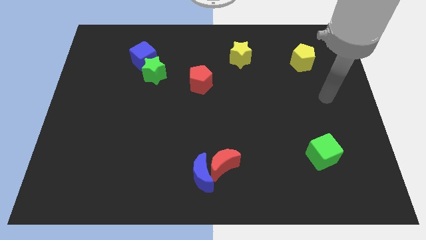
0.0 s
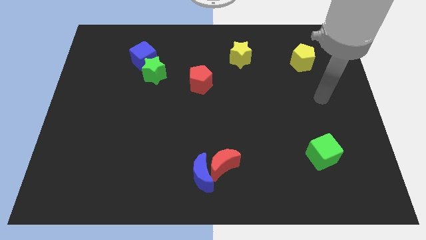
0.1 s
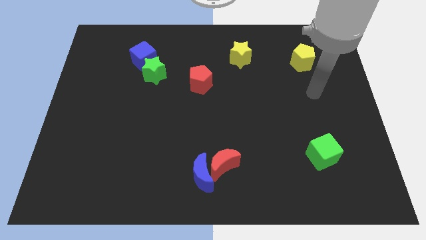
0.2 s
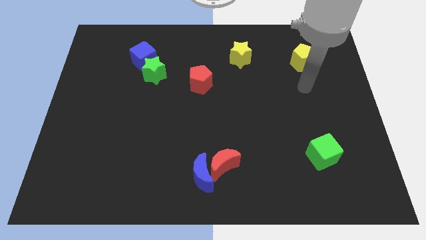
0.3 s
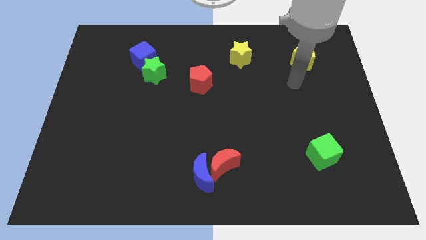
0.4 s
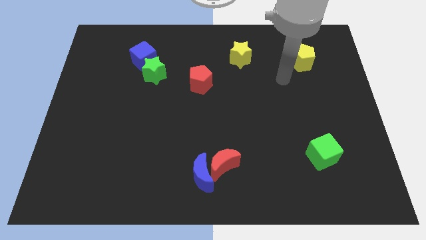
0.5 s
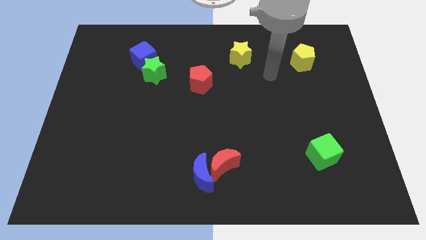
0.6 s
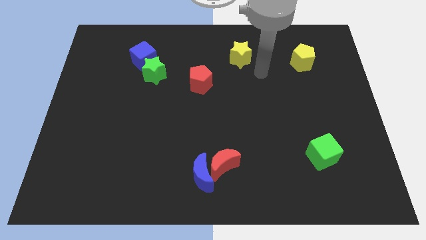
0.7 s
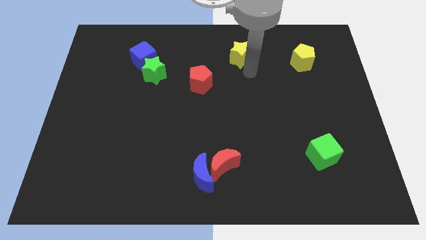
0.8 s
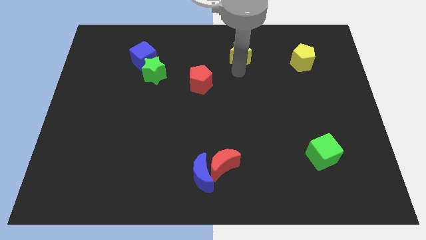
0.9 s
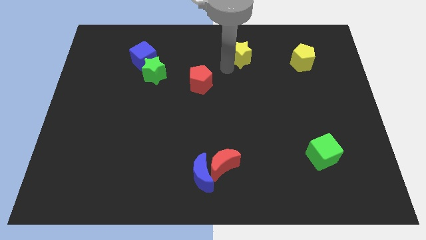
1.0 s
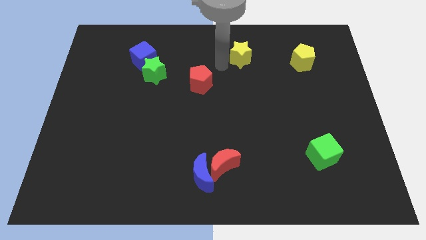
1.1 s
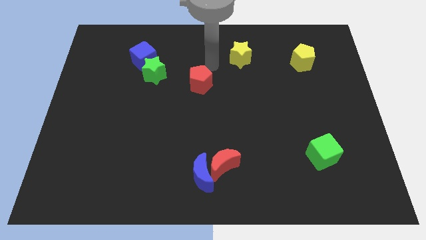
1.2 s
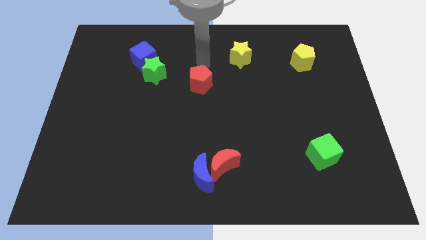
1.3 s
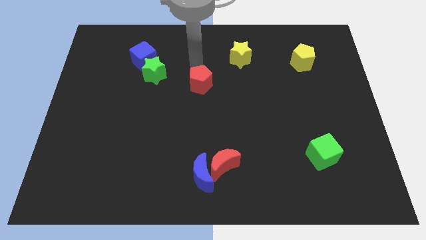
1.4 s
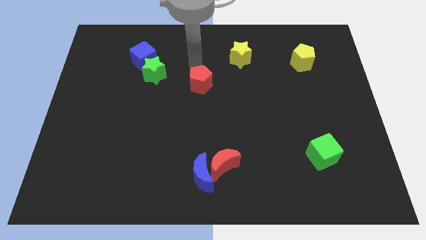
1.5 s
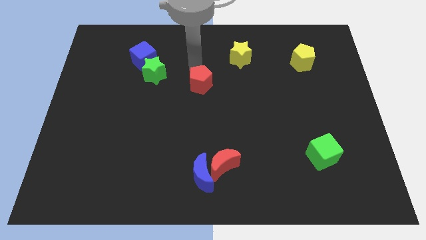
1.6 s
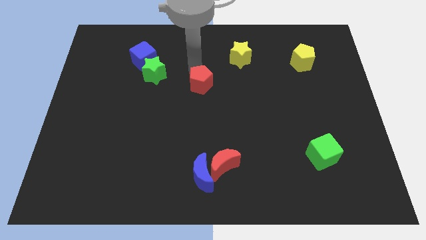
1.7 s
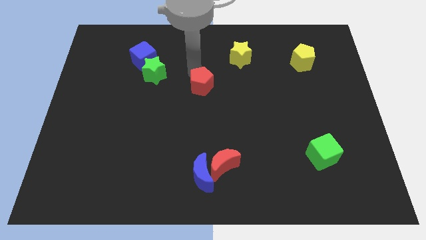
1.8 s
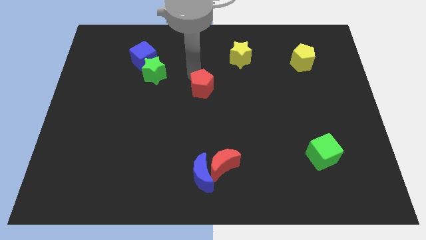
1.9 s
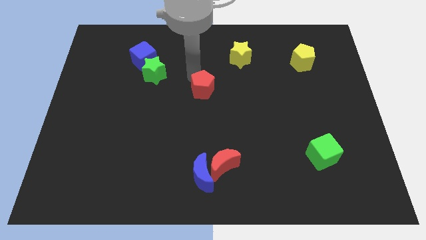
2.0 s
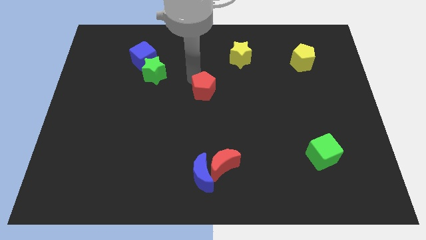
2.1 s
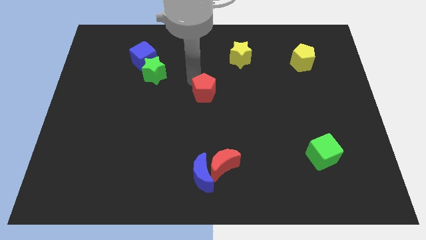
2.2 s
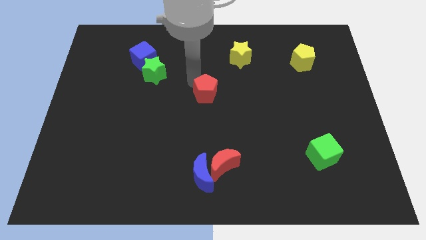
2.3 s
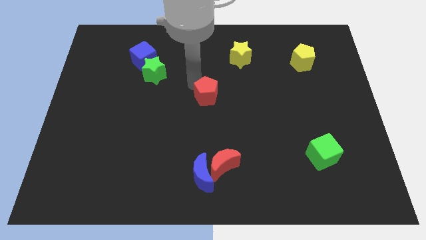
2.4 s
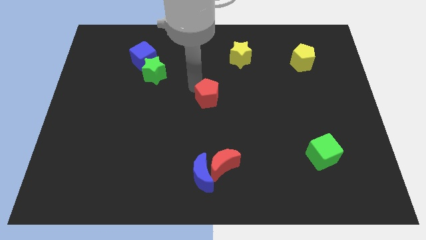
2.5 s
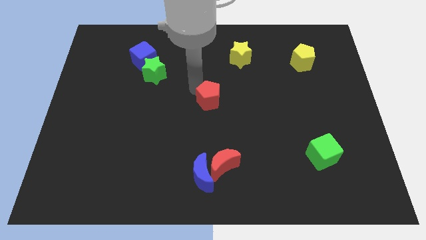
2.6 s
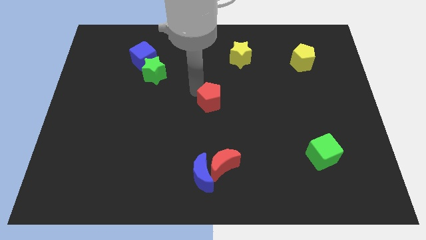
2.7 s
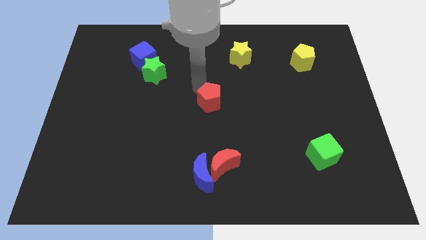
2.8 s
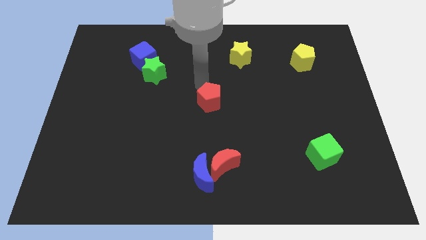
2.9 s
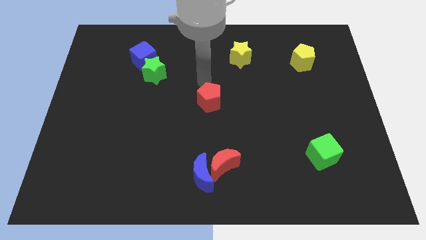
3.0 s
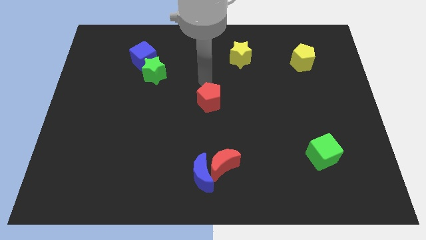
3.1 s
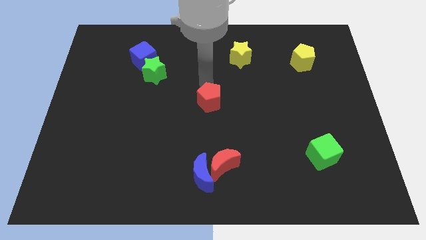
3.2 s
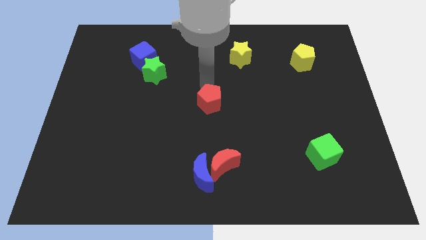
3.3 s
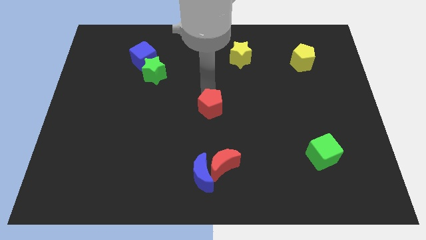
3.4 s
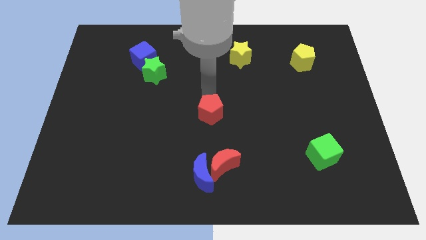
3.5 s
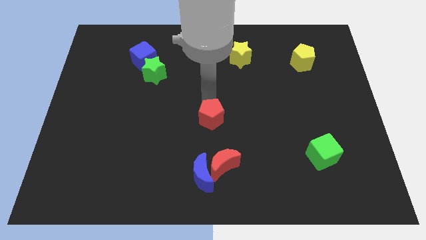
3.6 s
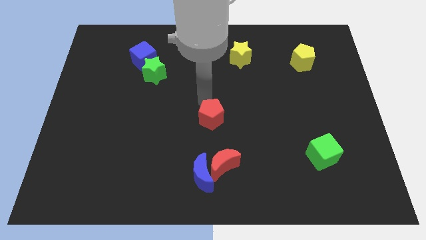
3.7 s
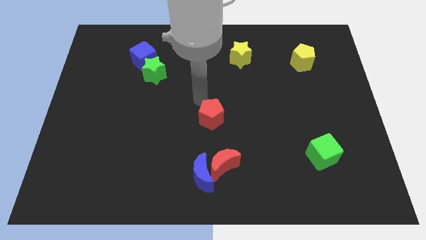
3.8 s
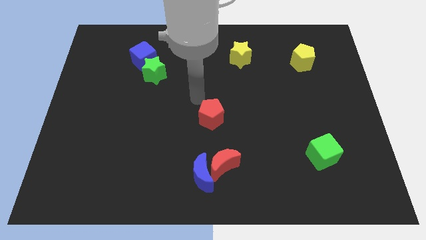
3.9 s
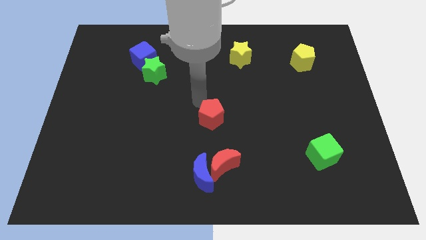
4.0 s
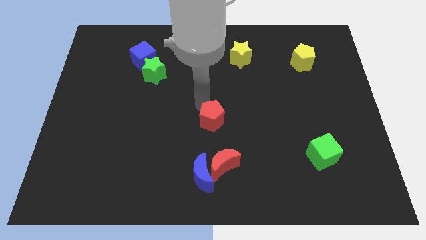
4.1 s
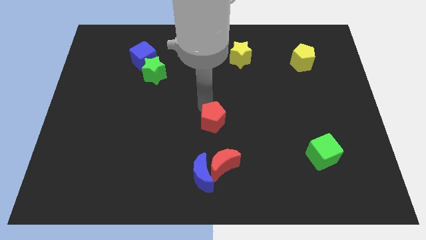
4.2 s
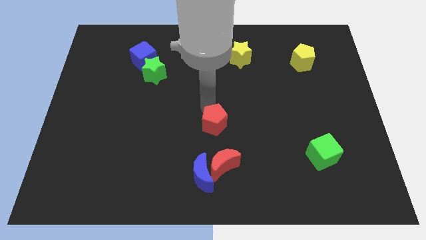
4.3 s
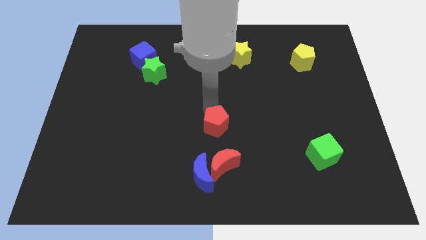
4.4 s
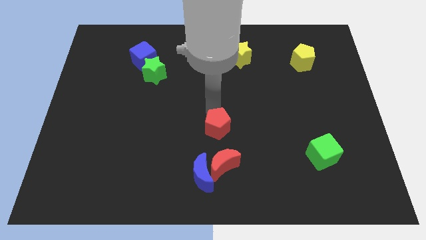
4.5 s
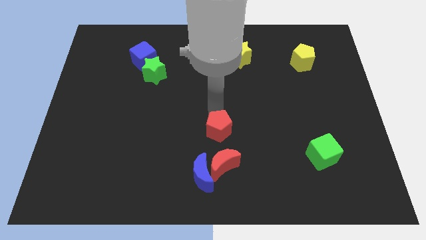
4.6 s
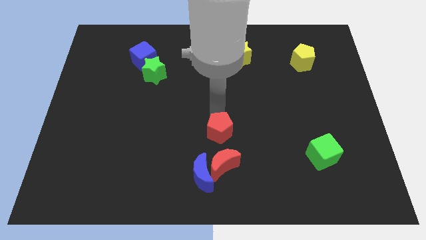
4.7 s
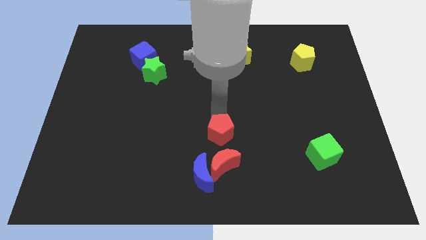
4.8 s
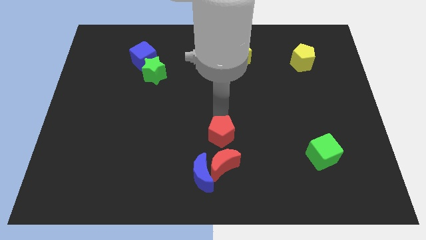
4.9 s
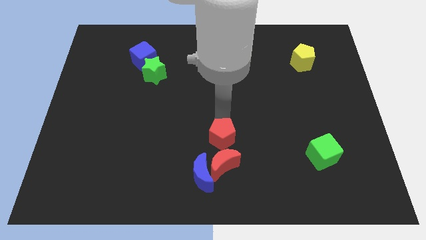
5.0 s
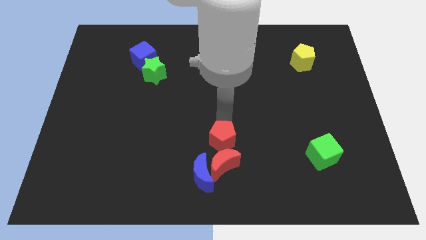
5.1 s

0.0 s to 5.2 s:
put the red pentagon to the red moon

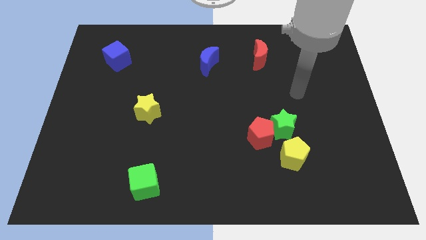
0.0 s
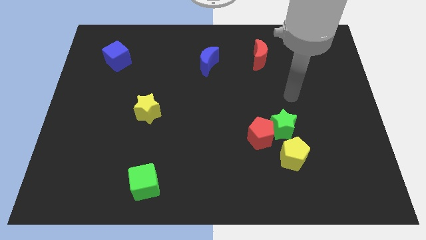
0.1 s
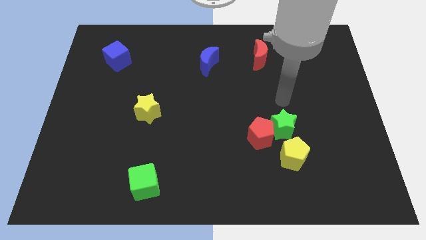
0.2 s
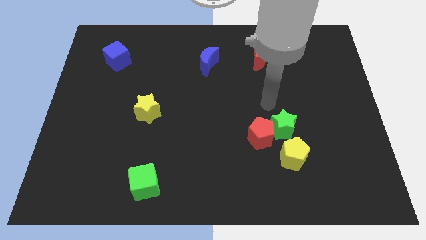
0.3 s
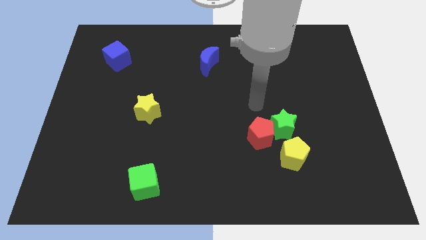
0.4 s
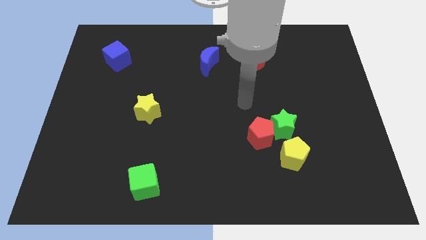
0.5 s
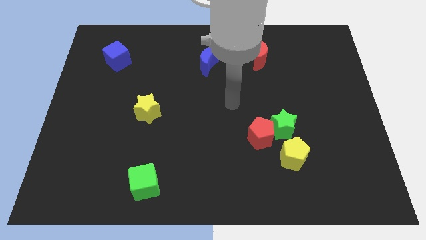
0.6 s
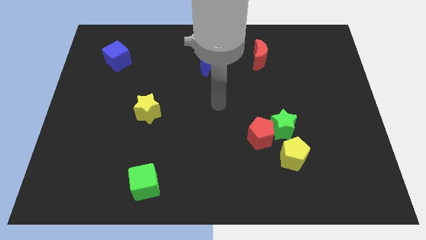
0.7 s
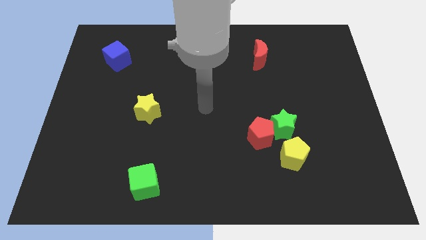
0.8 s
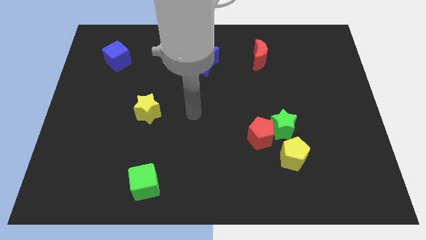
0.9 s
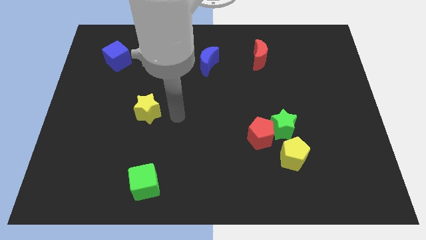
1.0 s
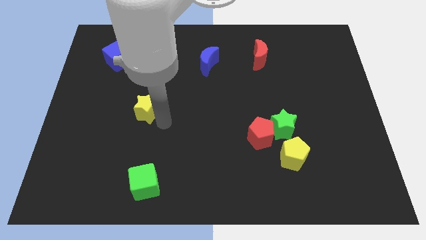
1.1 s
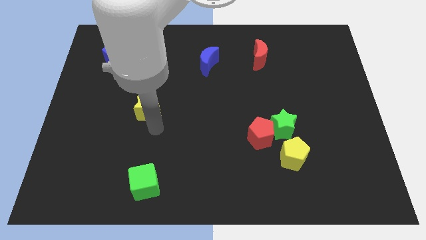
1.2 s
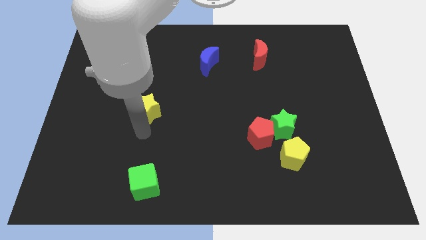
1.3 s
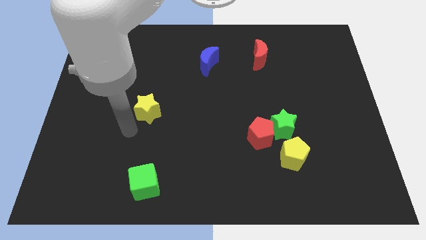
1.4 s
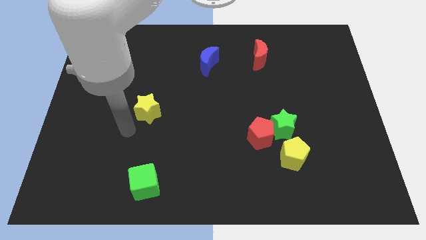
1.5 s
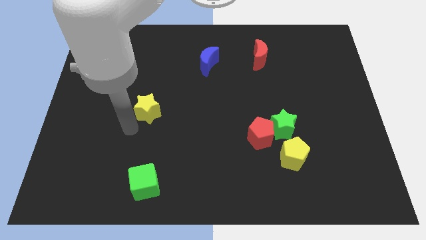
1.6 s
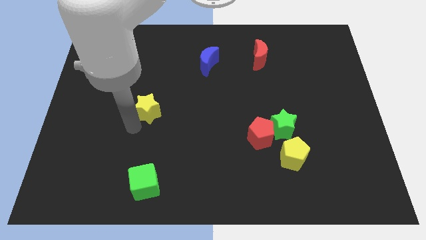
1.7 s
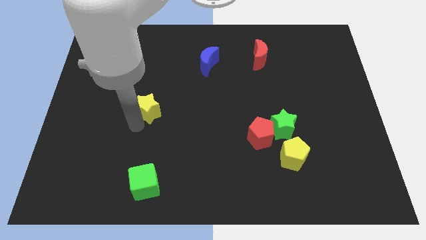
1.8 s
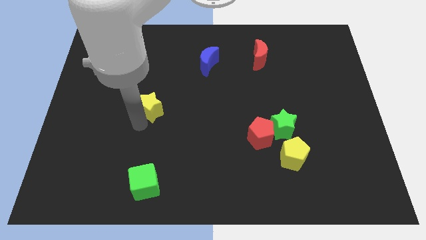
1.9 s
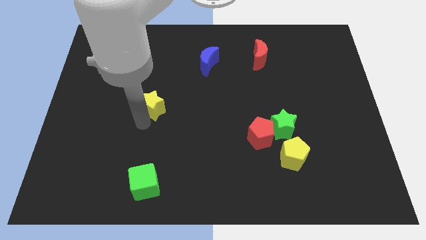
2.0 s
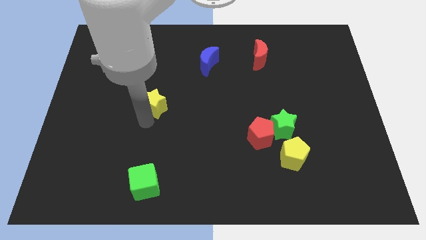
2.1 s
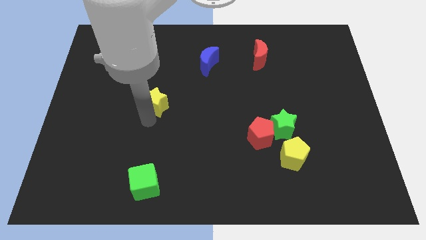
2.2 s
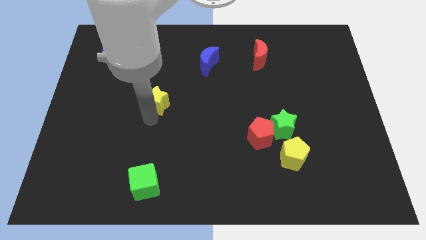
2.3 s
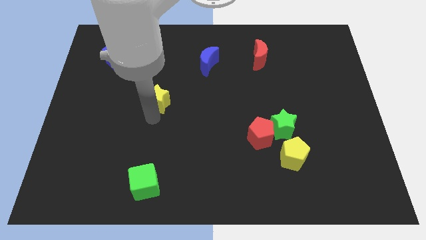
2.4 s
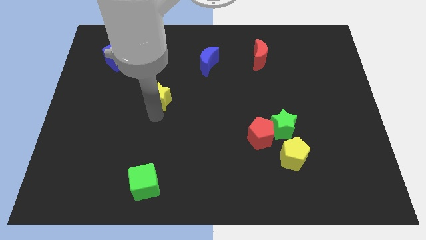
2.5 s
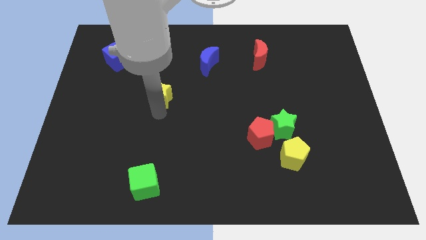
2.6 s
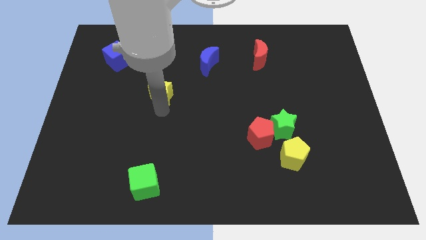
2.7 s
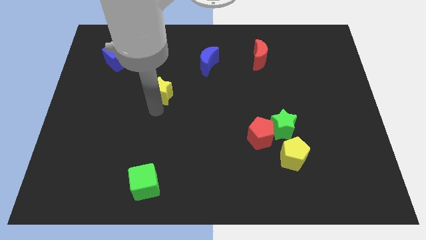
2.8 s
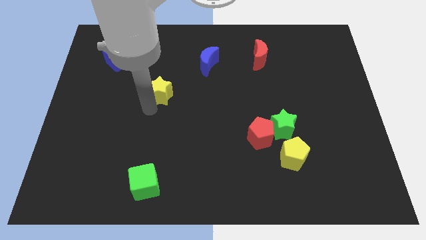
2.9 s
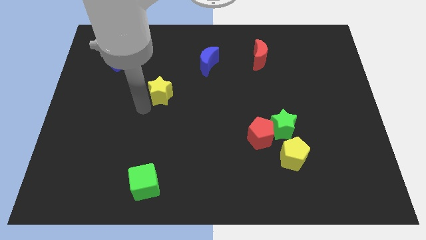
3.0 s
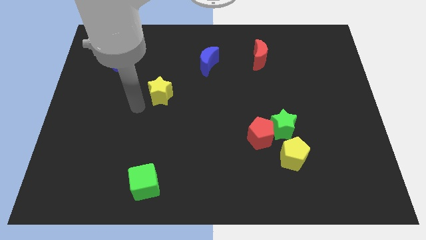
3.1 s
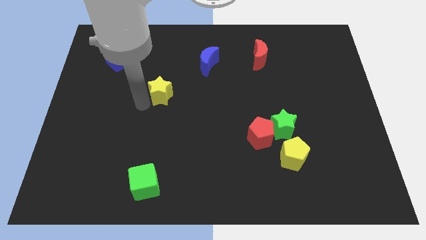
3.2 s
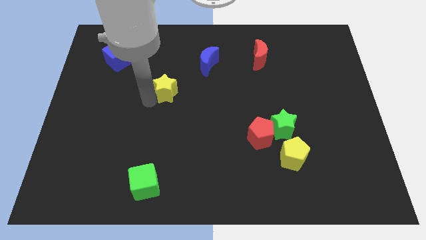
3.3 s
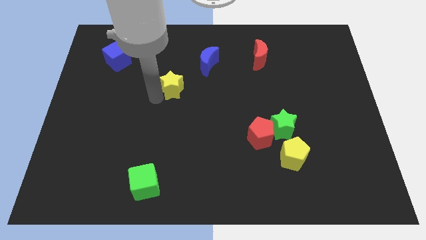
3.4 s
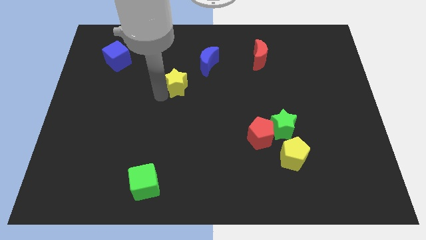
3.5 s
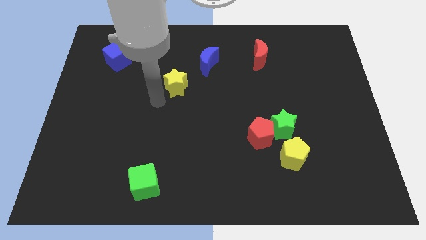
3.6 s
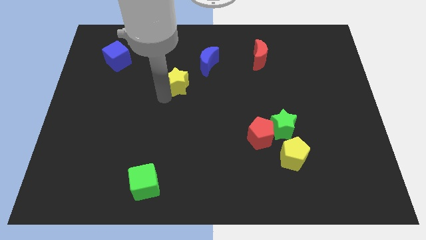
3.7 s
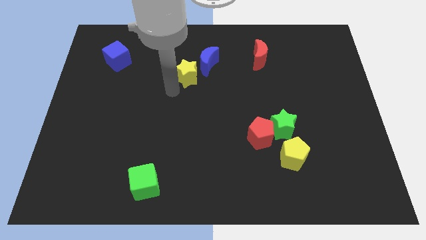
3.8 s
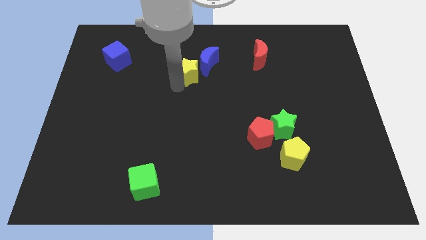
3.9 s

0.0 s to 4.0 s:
push the yellow star next to the blue moon
